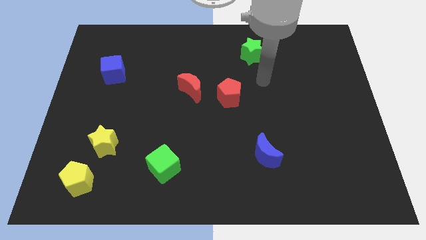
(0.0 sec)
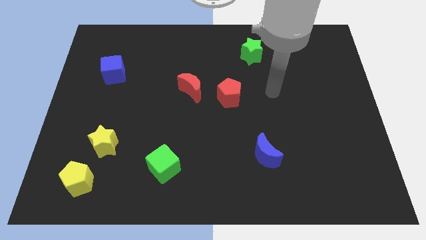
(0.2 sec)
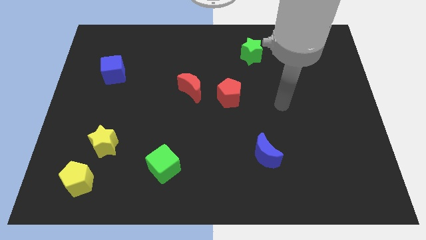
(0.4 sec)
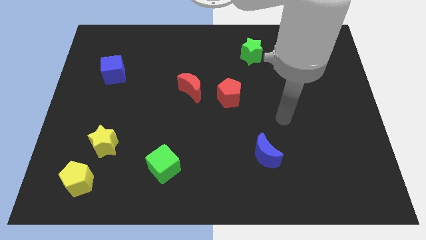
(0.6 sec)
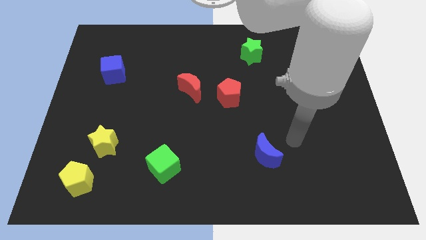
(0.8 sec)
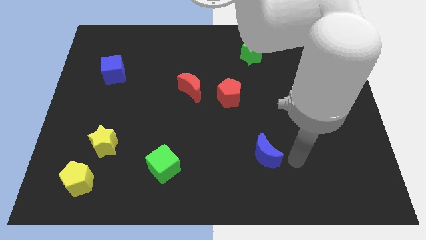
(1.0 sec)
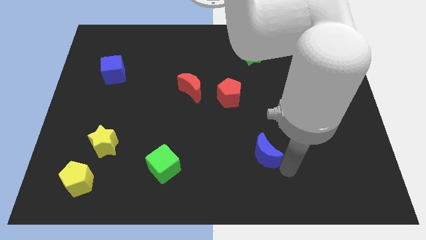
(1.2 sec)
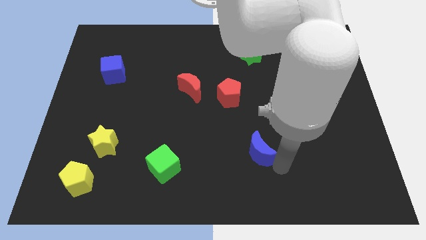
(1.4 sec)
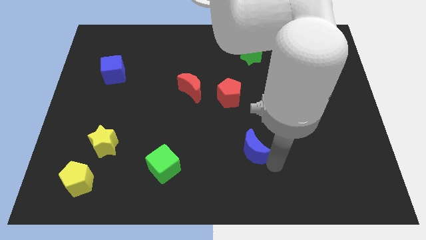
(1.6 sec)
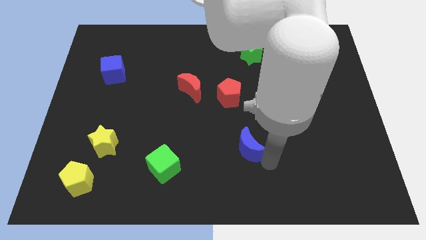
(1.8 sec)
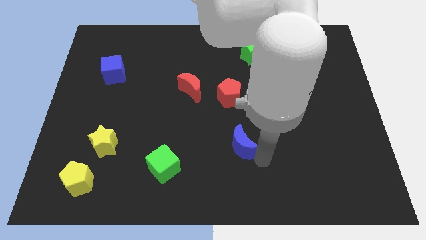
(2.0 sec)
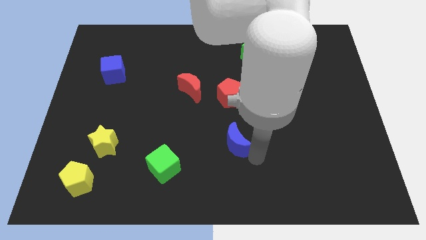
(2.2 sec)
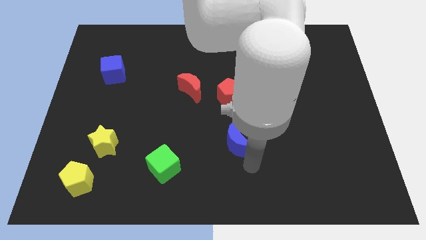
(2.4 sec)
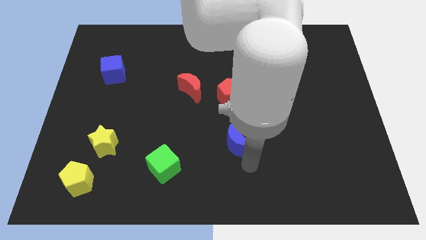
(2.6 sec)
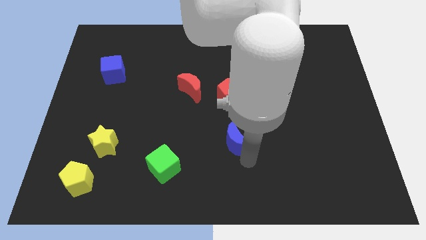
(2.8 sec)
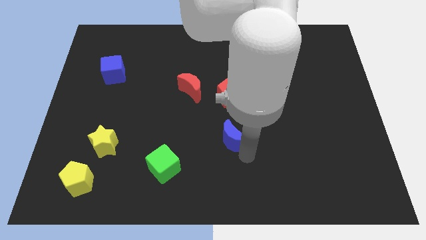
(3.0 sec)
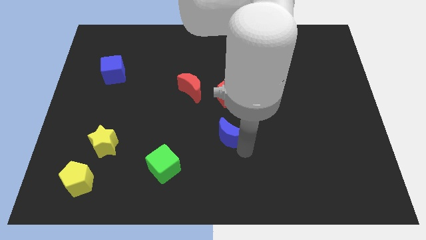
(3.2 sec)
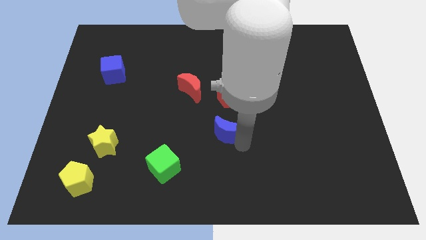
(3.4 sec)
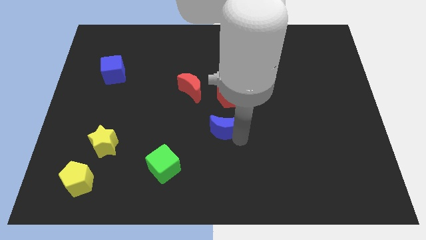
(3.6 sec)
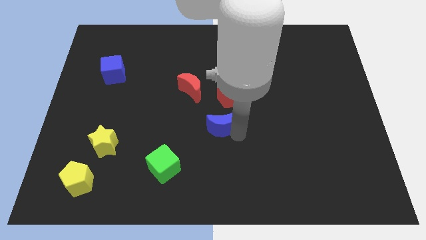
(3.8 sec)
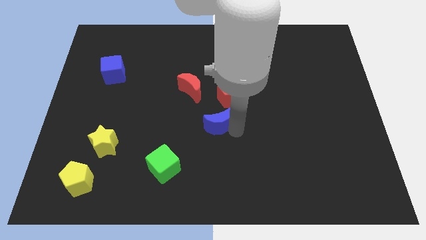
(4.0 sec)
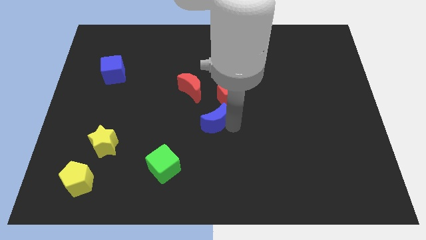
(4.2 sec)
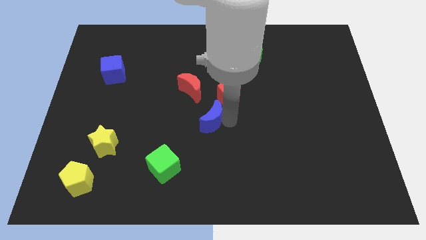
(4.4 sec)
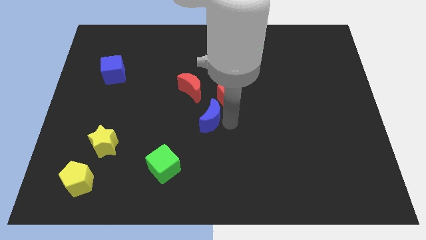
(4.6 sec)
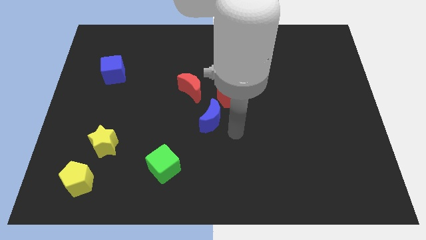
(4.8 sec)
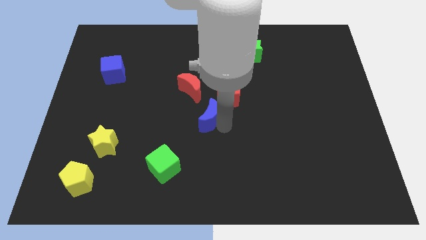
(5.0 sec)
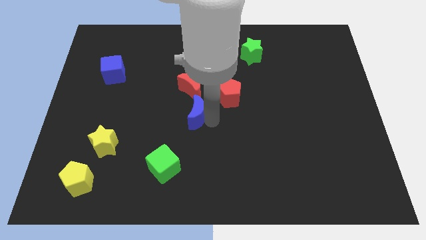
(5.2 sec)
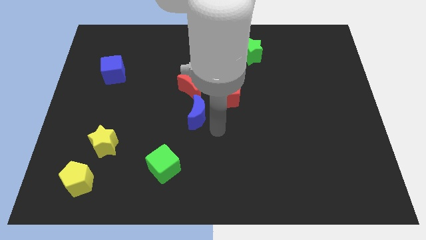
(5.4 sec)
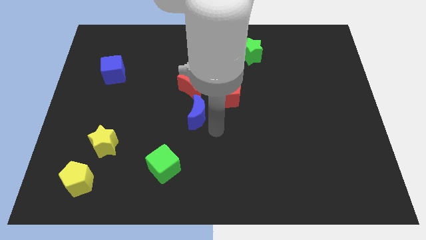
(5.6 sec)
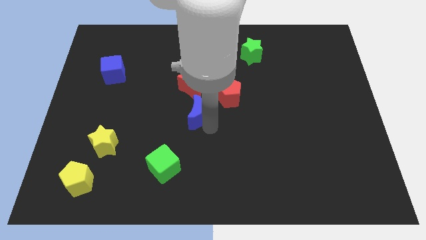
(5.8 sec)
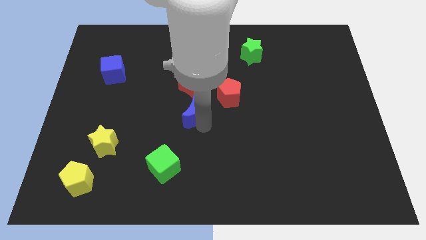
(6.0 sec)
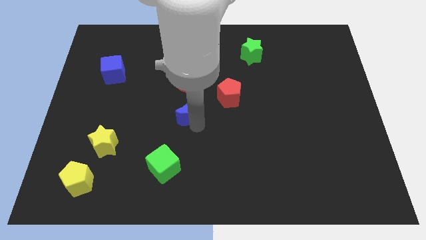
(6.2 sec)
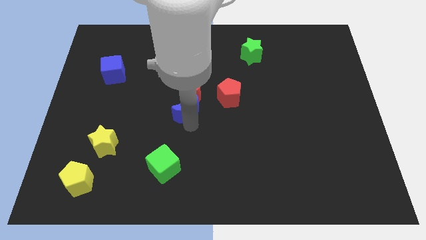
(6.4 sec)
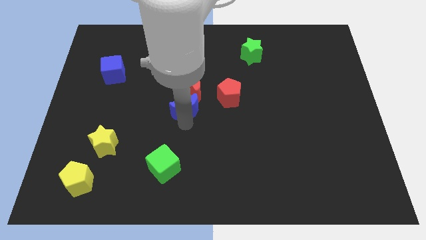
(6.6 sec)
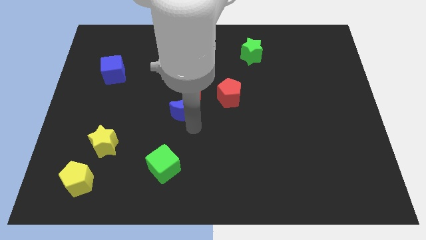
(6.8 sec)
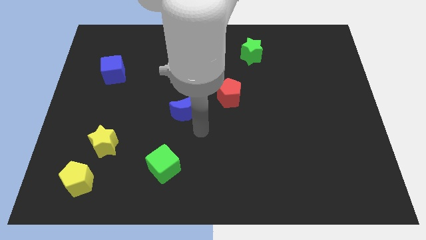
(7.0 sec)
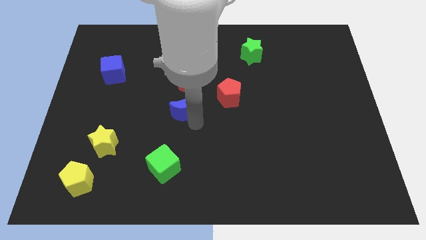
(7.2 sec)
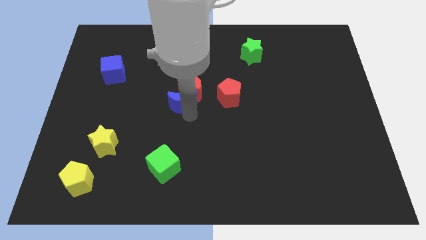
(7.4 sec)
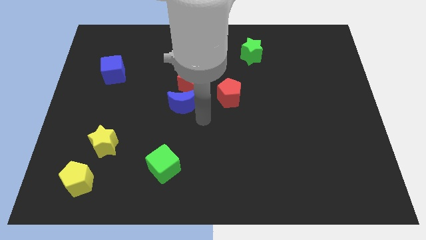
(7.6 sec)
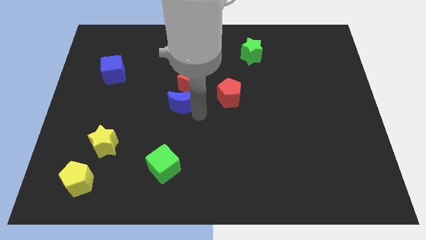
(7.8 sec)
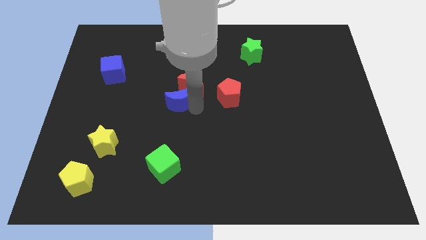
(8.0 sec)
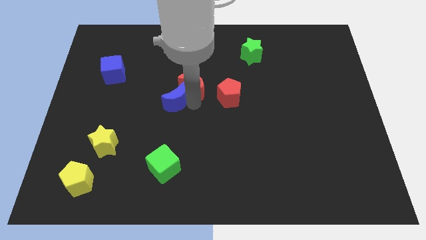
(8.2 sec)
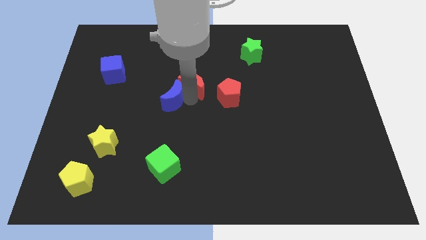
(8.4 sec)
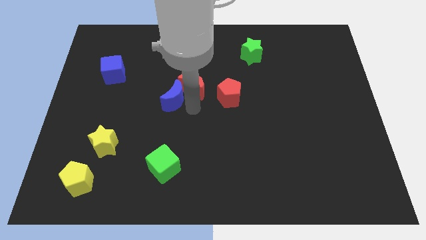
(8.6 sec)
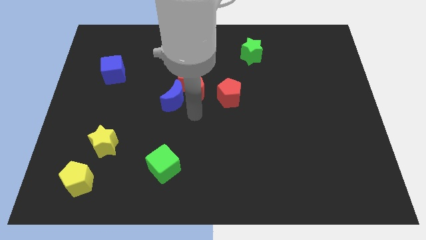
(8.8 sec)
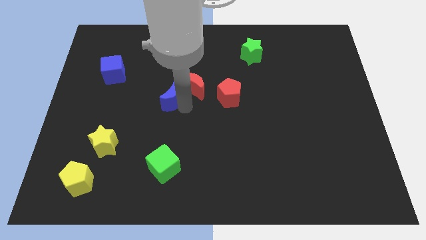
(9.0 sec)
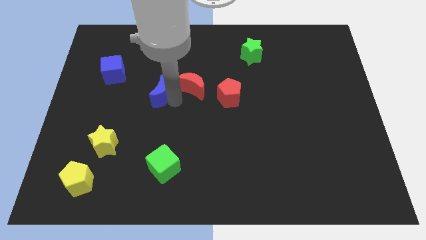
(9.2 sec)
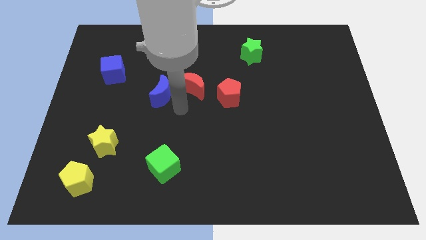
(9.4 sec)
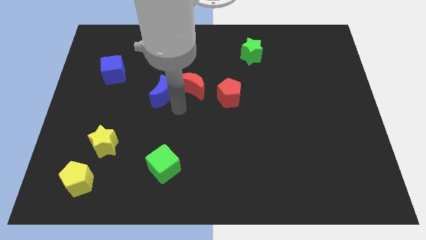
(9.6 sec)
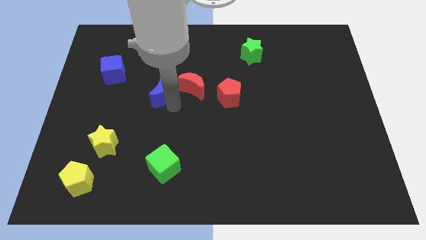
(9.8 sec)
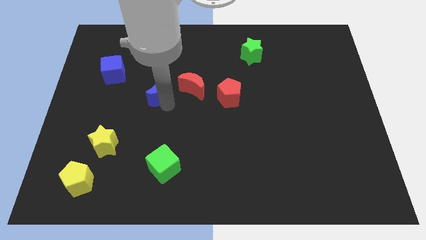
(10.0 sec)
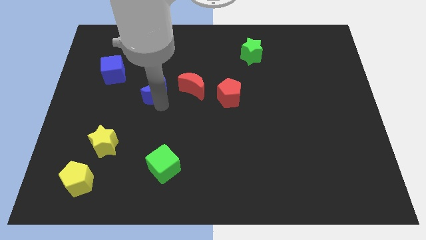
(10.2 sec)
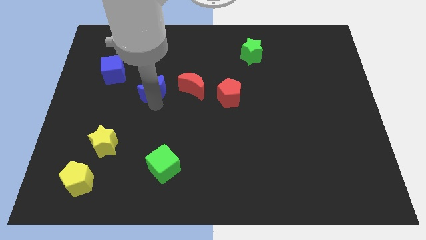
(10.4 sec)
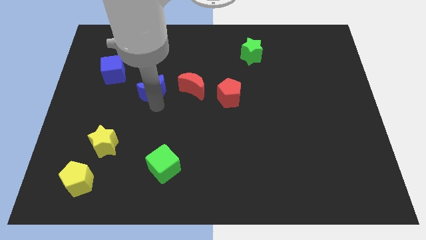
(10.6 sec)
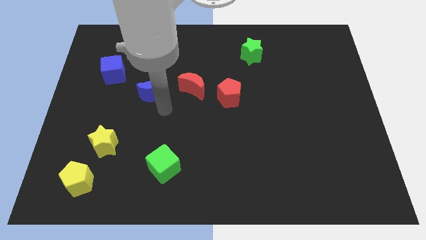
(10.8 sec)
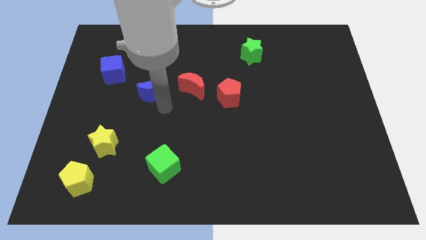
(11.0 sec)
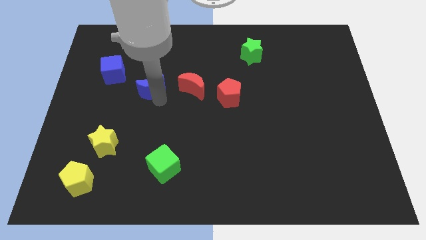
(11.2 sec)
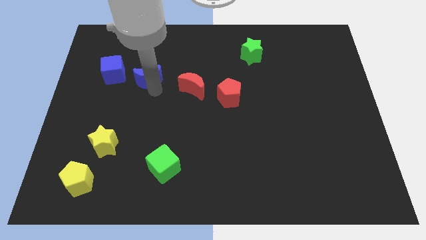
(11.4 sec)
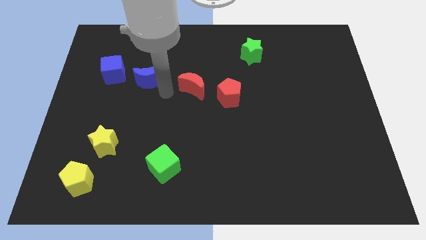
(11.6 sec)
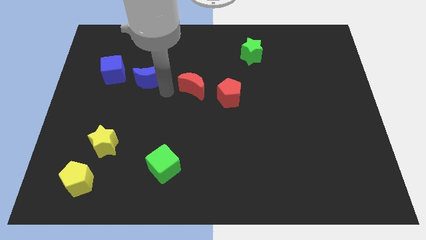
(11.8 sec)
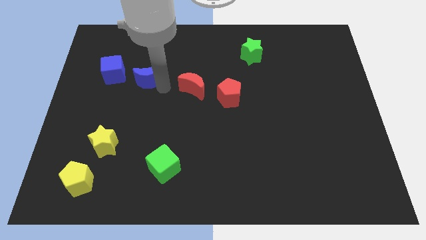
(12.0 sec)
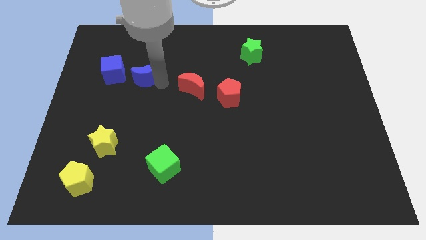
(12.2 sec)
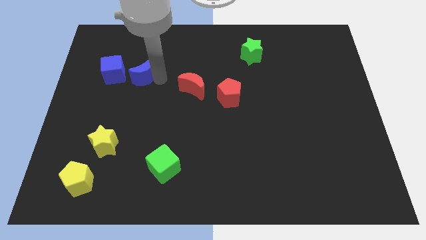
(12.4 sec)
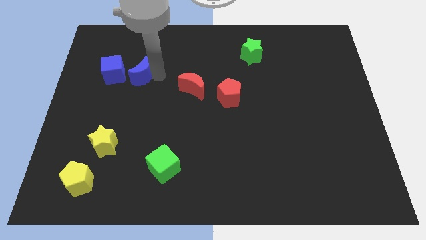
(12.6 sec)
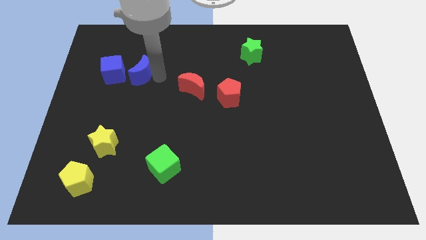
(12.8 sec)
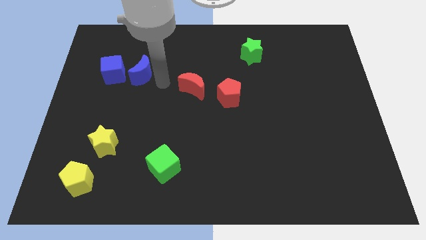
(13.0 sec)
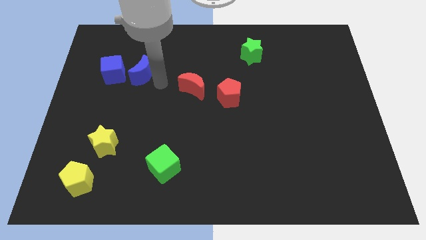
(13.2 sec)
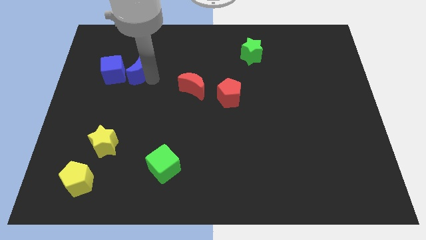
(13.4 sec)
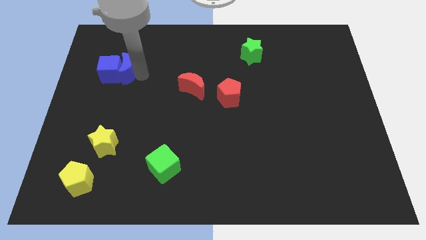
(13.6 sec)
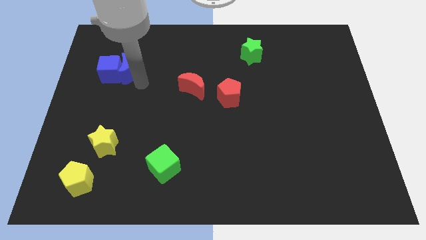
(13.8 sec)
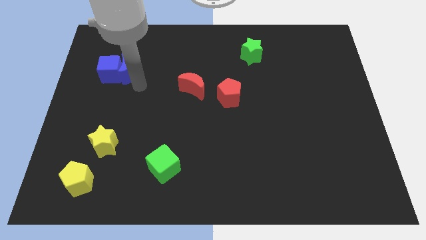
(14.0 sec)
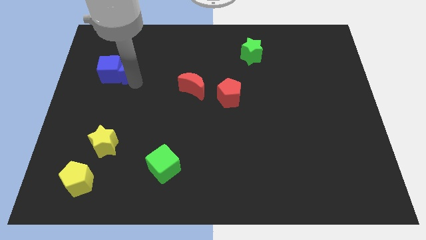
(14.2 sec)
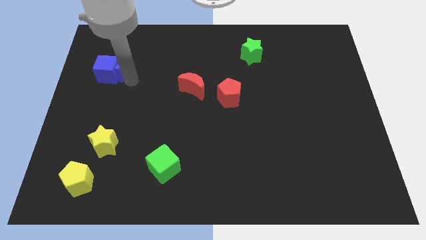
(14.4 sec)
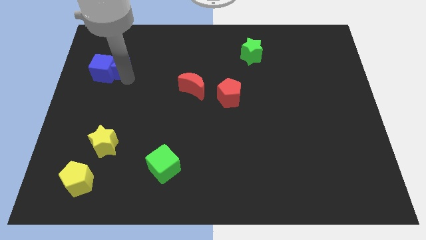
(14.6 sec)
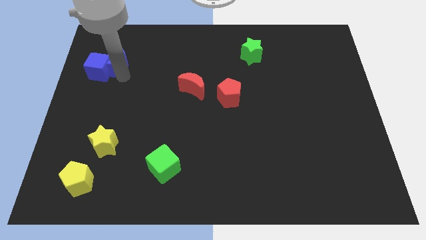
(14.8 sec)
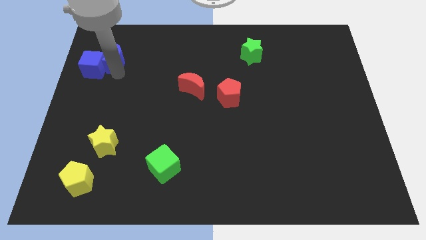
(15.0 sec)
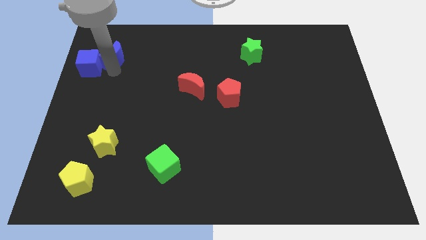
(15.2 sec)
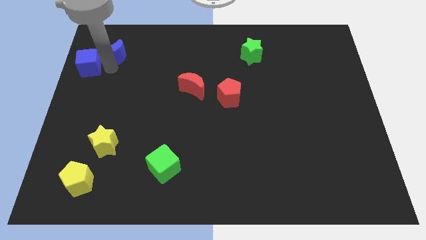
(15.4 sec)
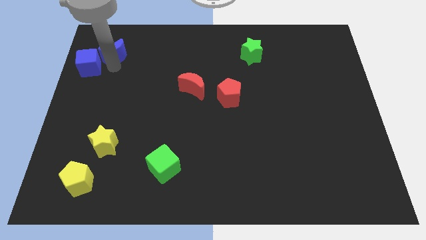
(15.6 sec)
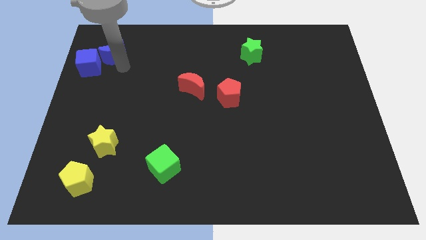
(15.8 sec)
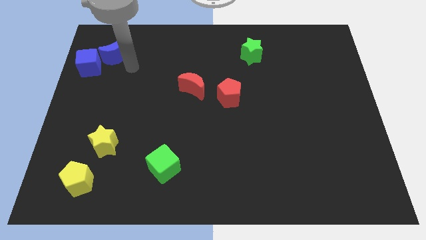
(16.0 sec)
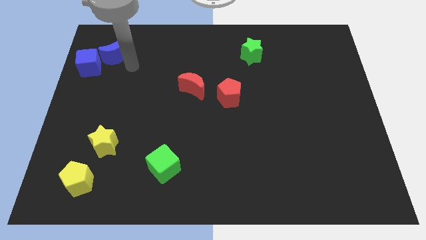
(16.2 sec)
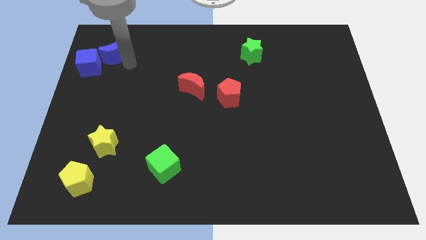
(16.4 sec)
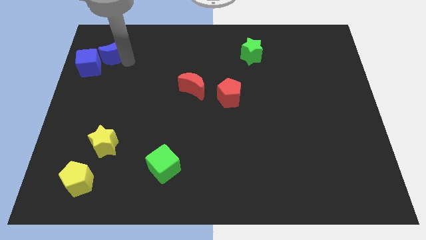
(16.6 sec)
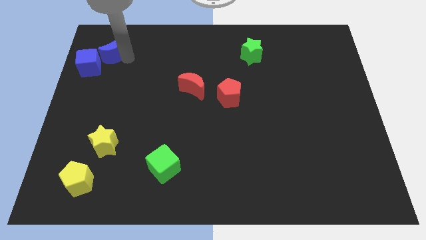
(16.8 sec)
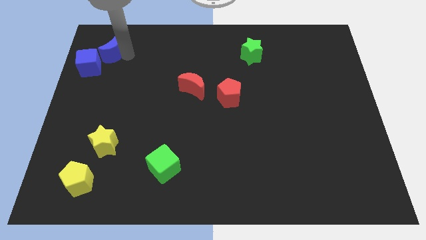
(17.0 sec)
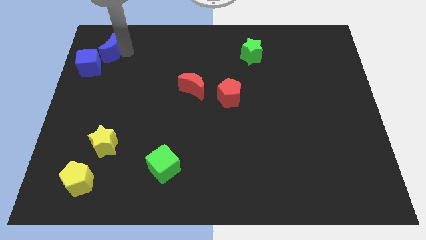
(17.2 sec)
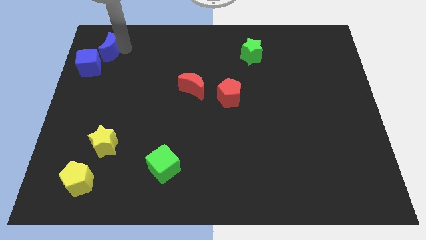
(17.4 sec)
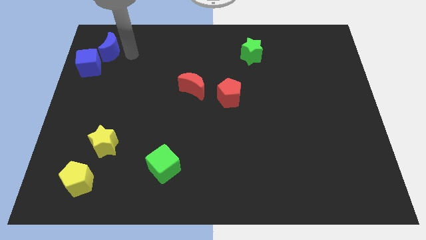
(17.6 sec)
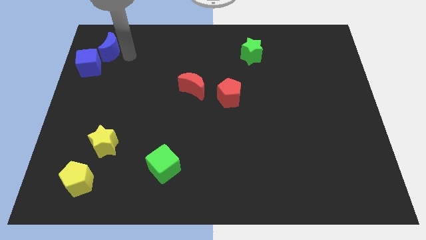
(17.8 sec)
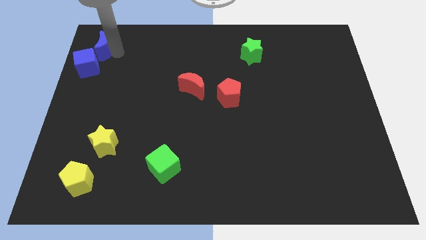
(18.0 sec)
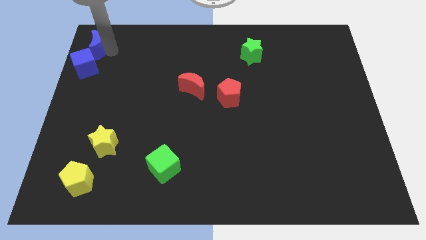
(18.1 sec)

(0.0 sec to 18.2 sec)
put the blue moon to the top left corner
